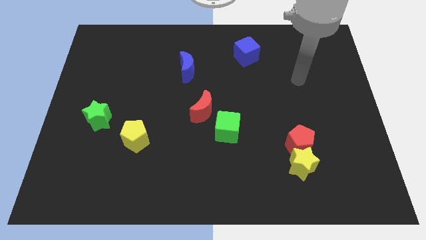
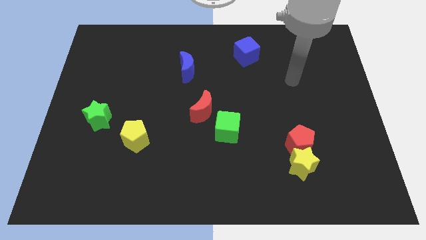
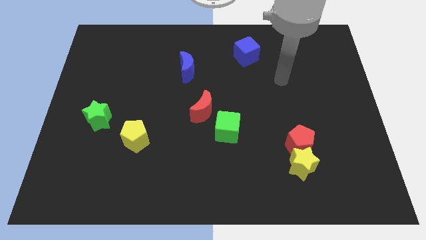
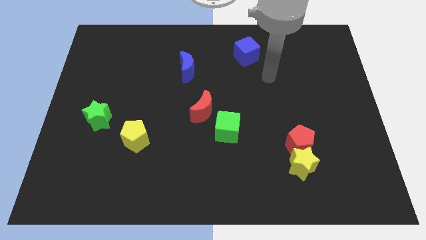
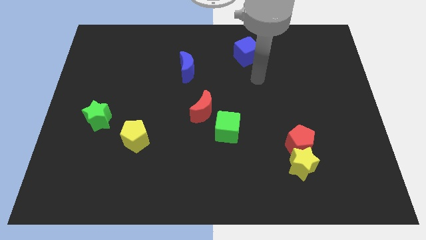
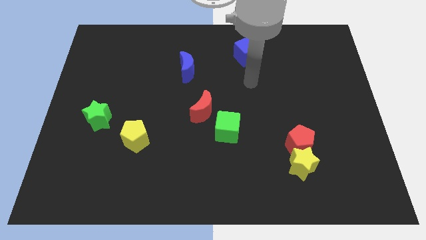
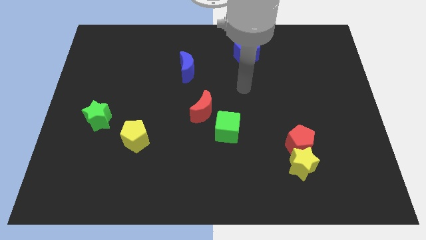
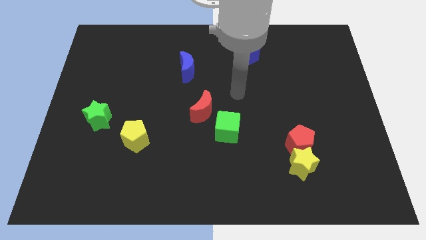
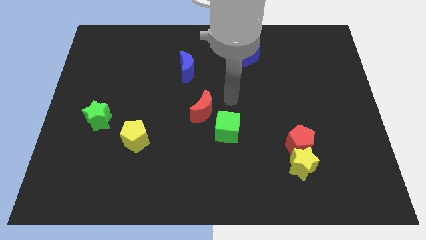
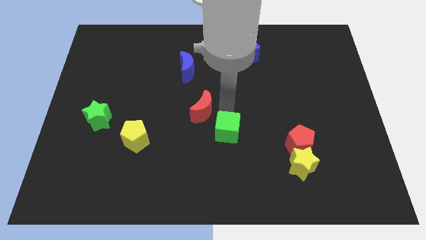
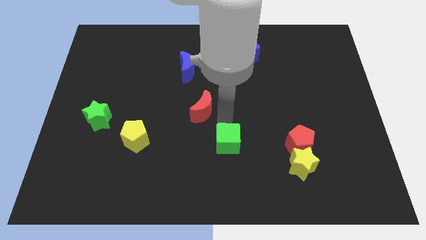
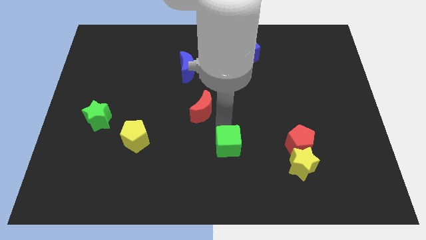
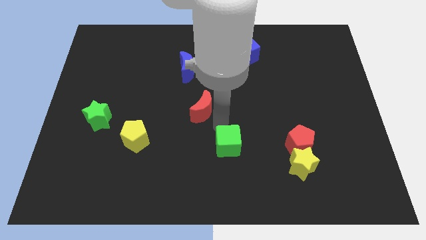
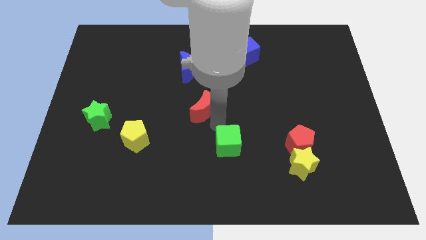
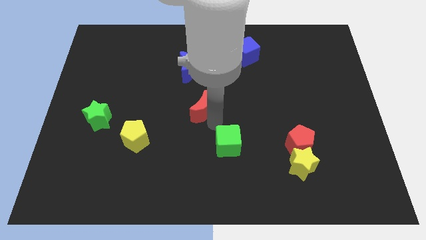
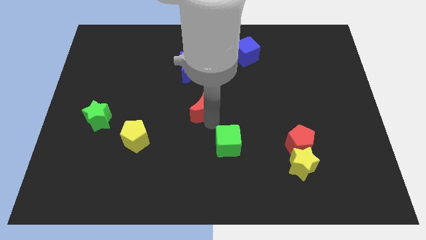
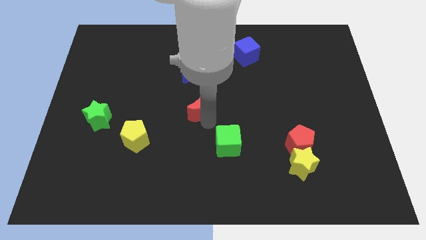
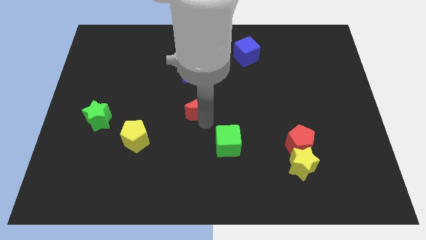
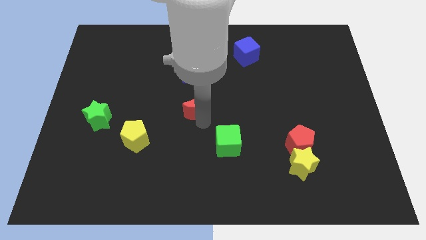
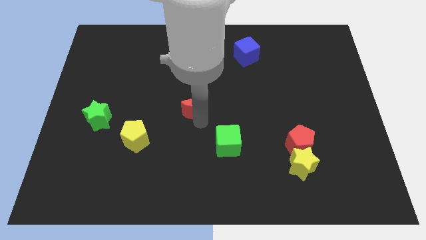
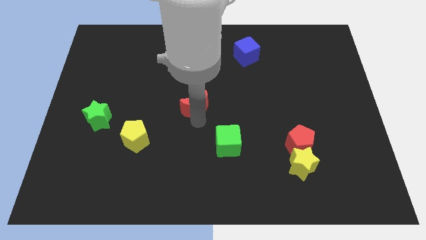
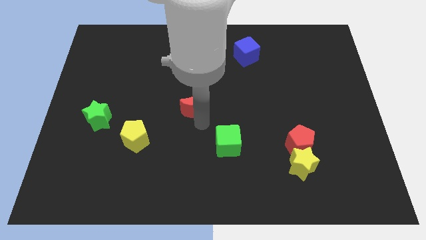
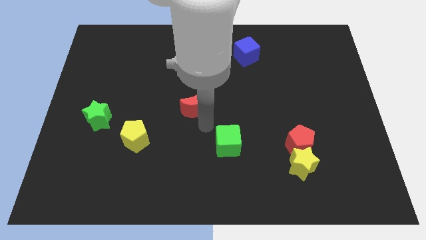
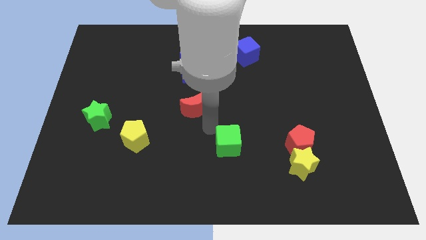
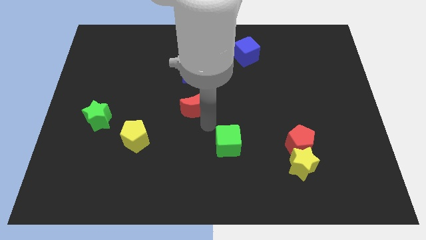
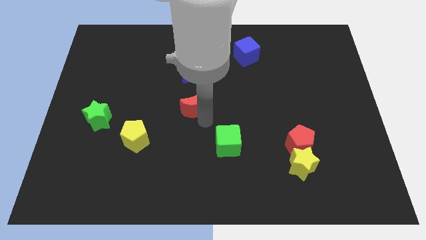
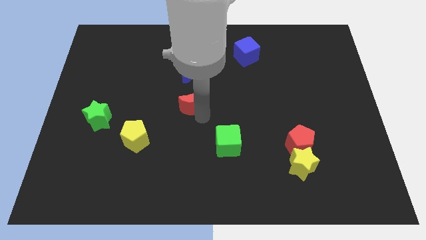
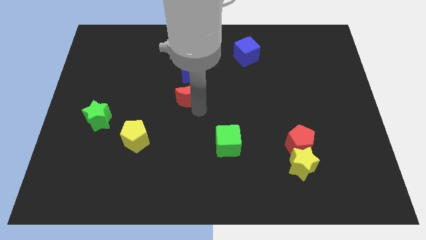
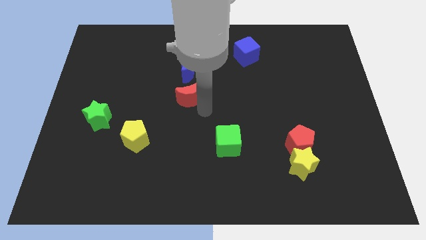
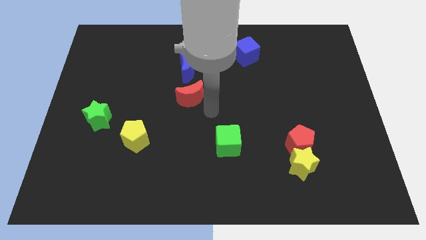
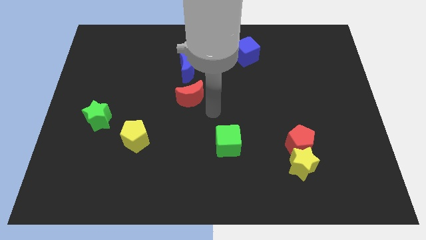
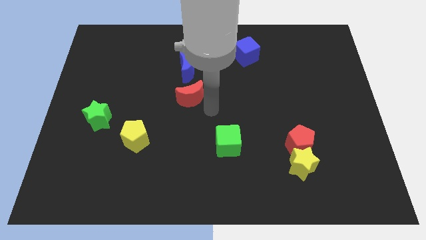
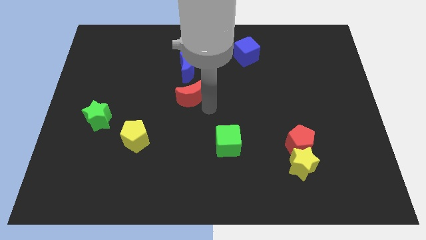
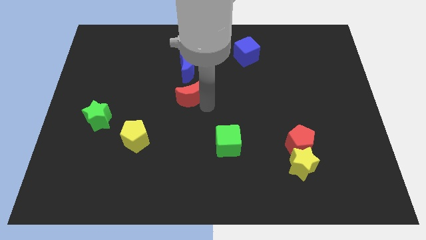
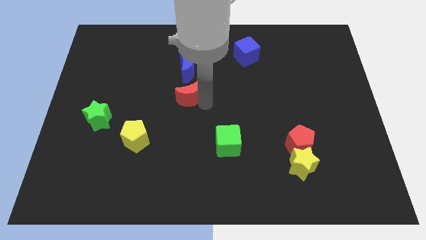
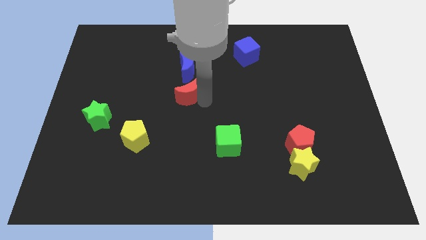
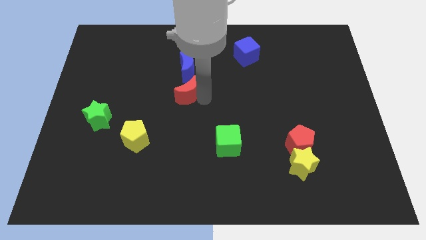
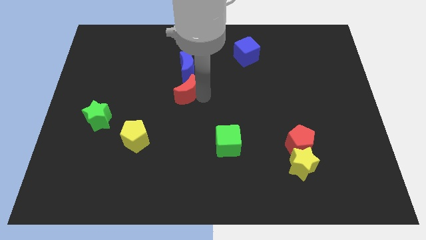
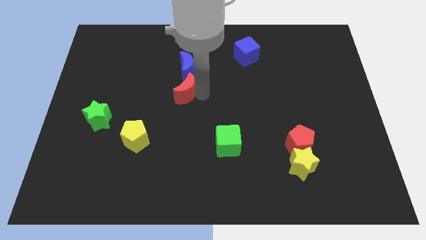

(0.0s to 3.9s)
push the red moon up and to the left a little

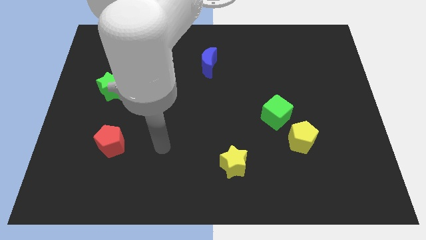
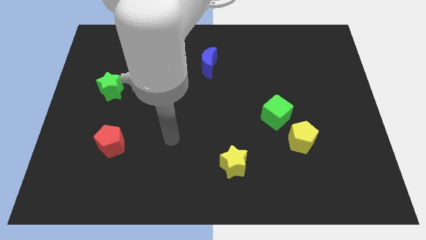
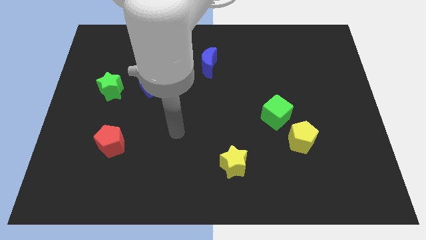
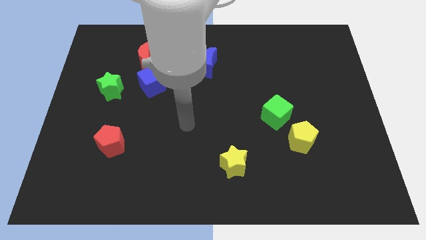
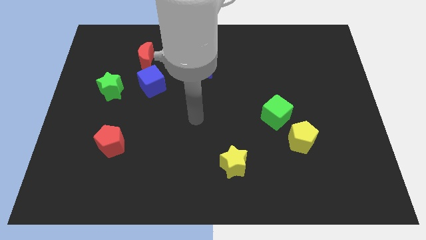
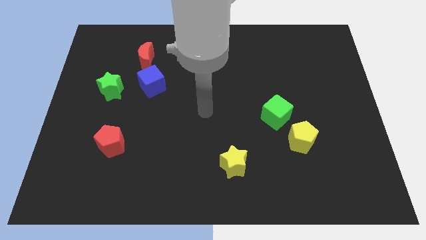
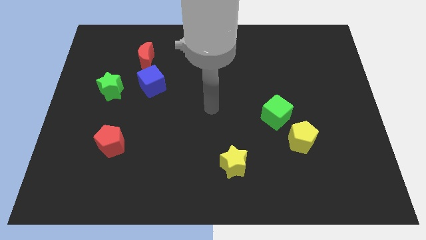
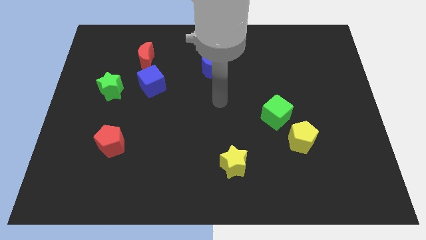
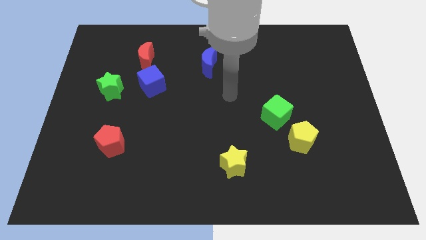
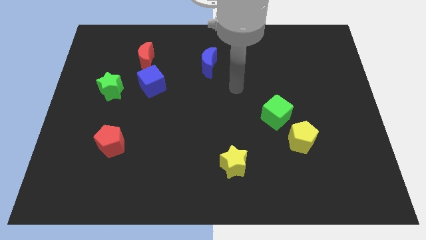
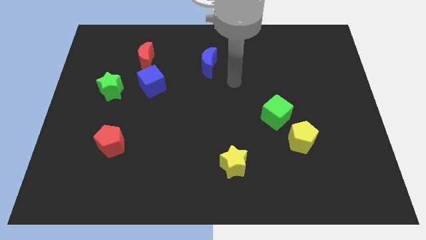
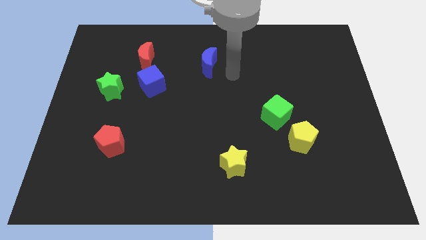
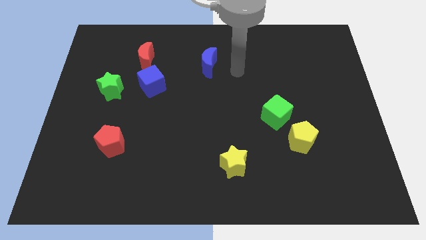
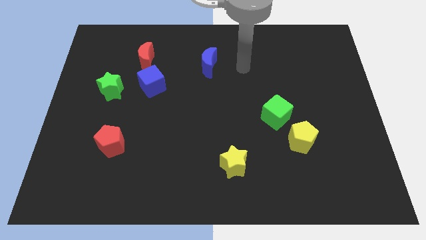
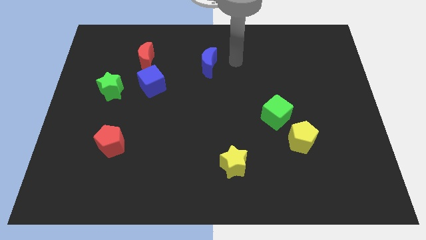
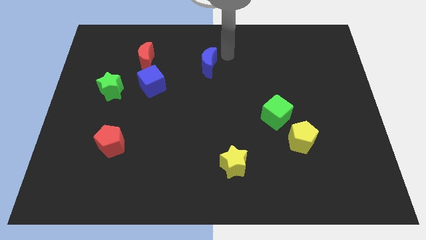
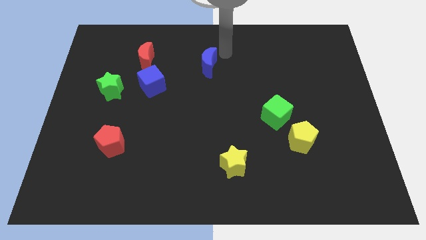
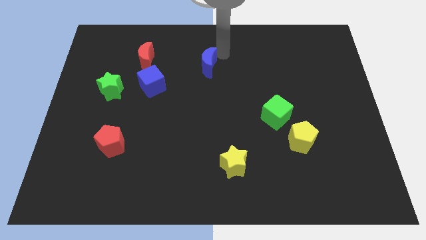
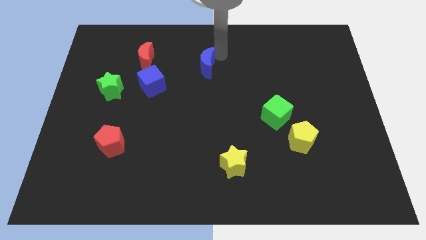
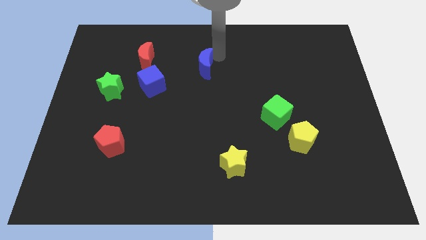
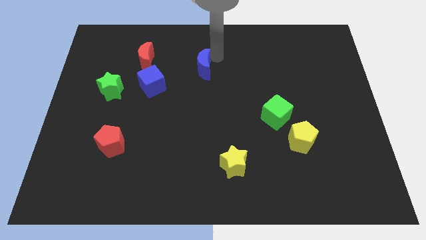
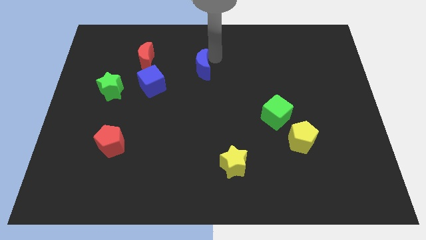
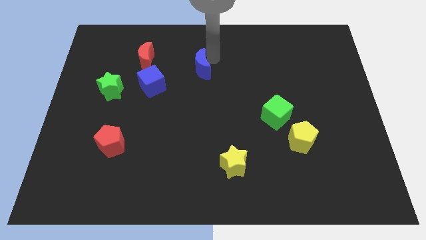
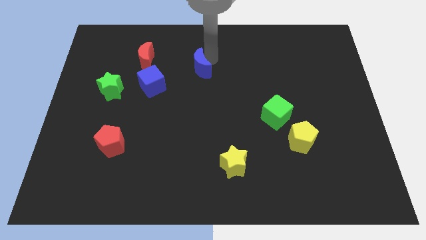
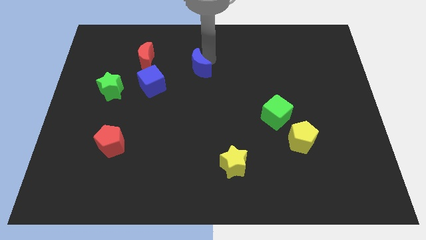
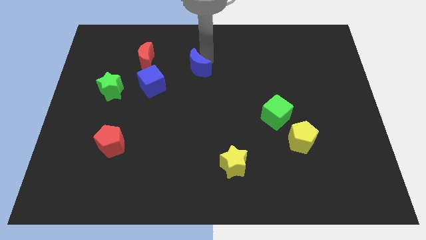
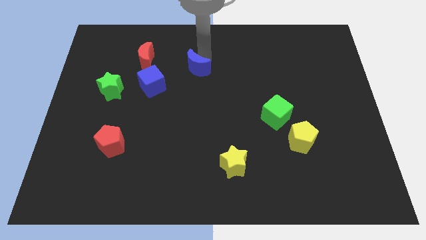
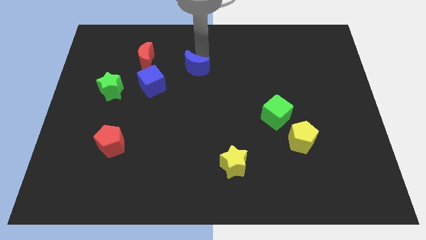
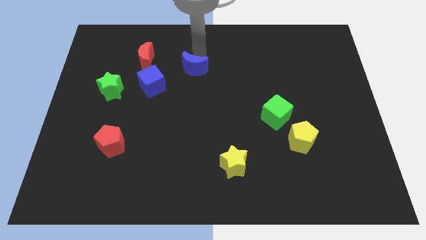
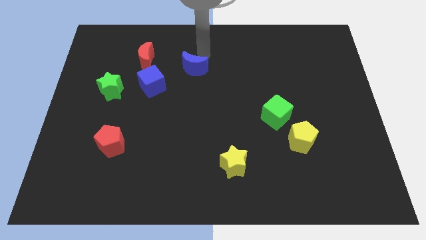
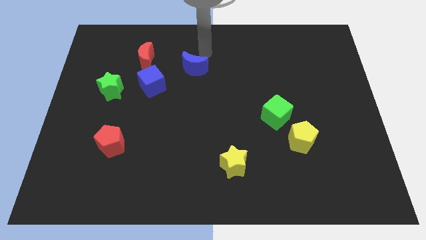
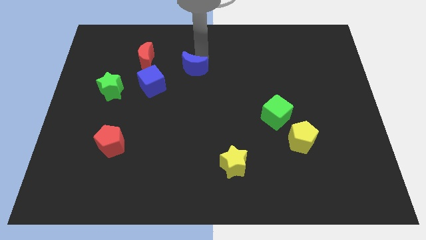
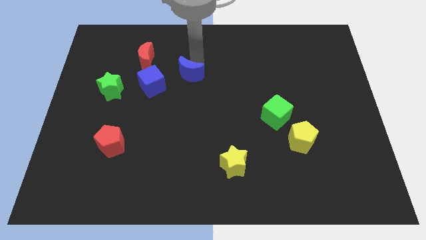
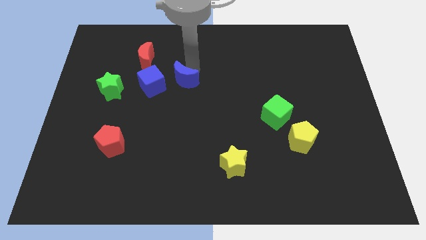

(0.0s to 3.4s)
slide the blue moon downwards and then left a little

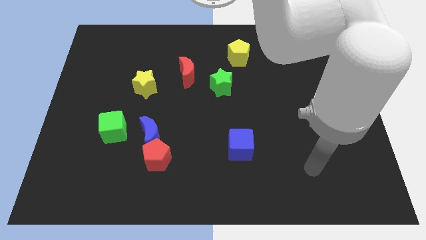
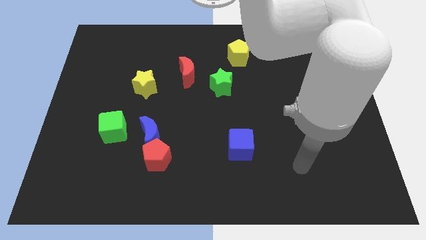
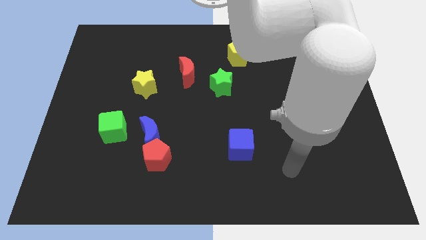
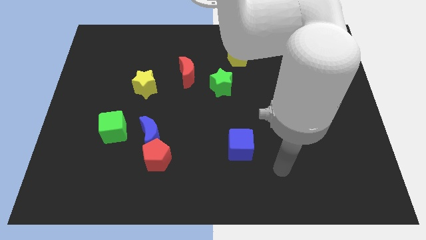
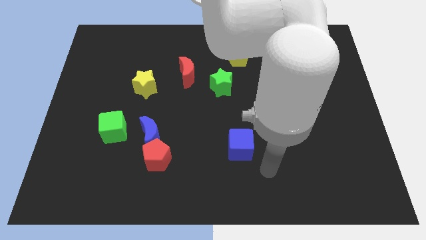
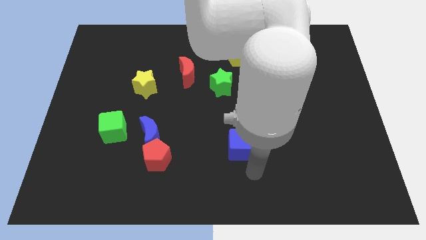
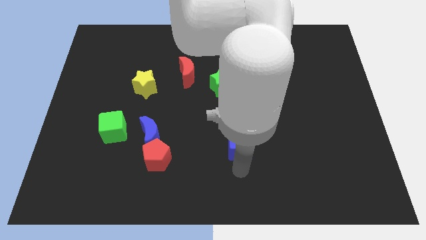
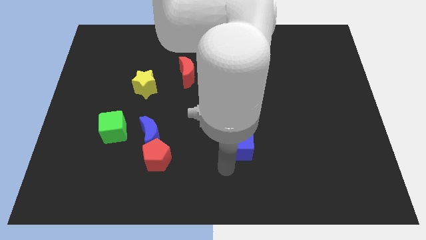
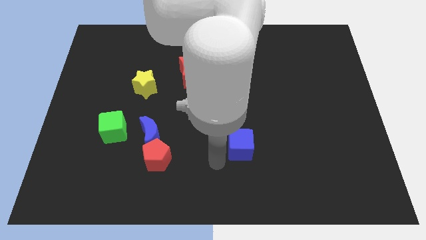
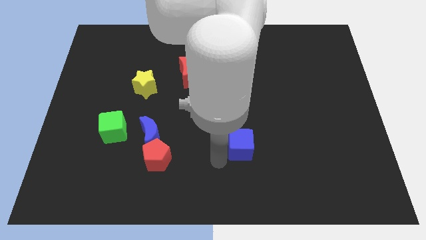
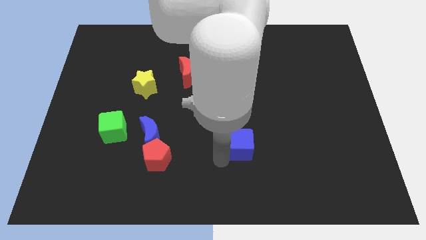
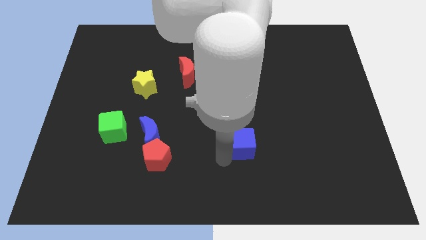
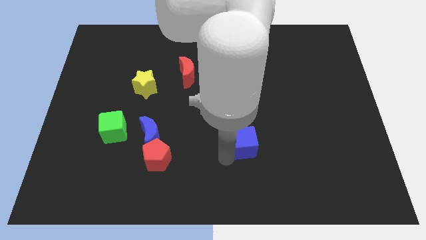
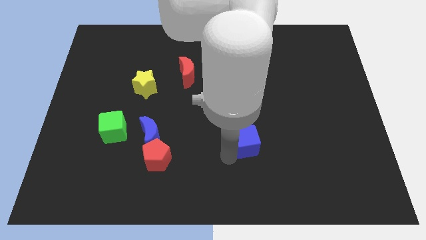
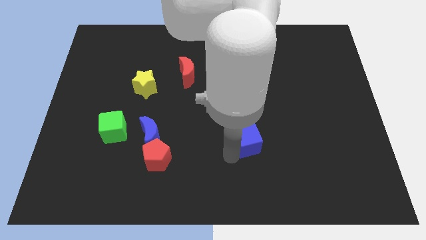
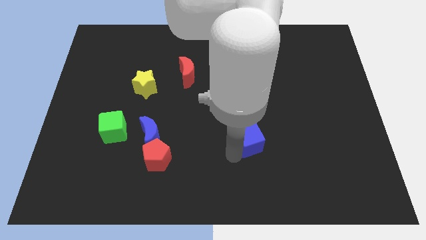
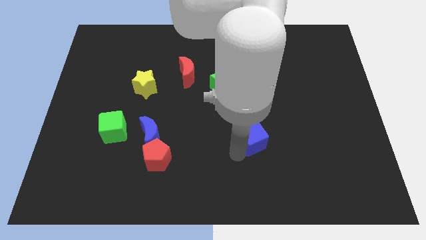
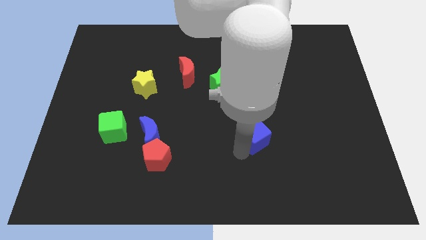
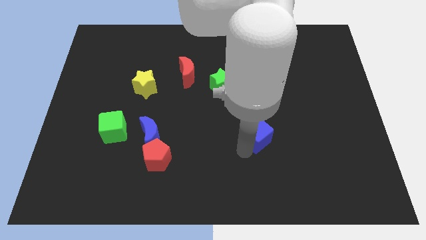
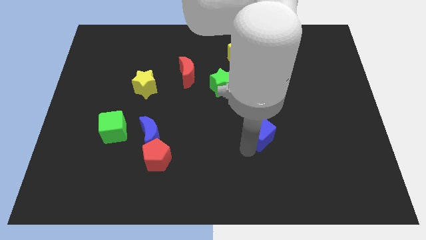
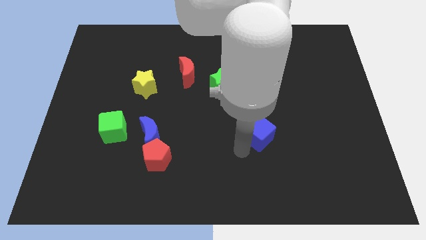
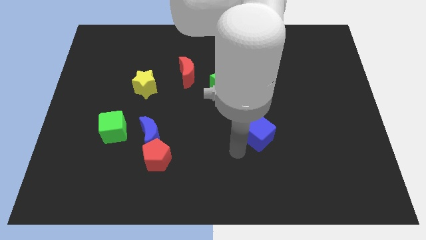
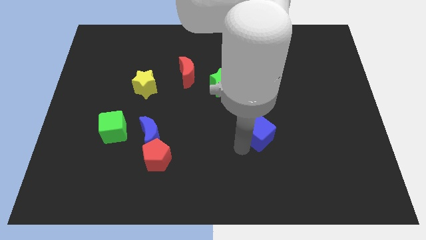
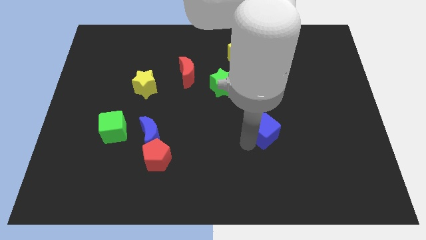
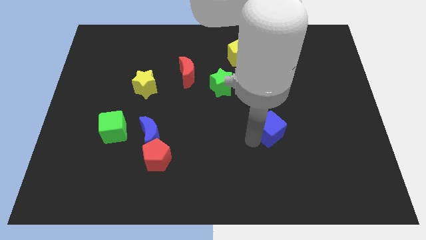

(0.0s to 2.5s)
slide the blue cube upwards and then to the right a little bit
